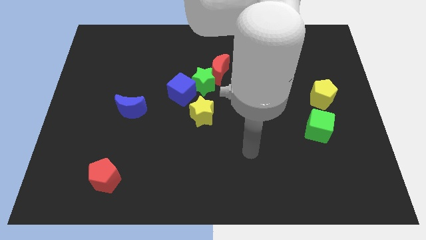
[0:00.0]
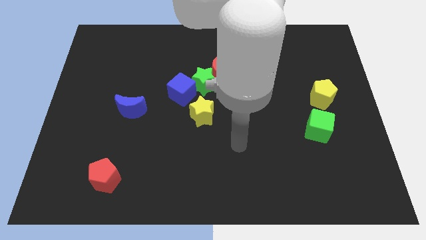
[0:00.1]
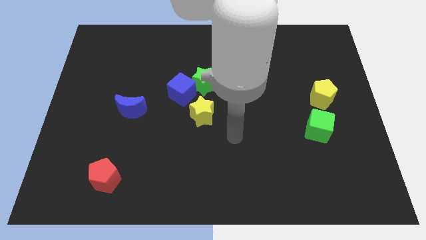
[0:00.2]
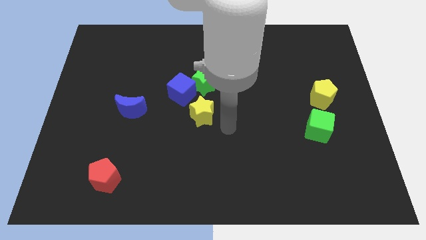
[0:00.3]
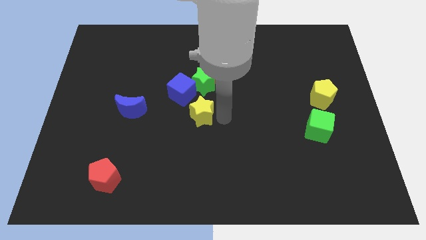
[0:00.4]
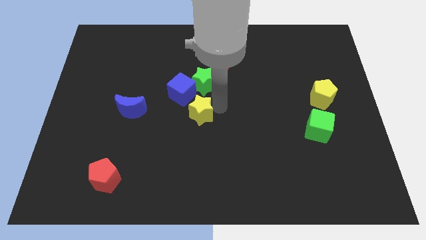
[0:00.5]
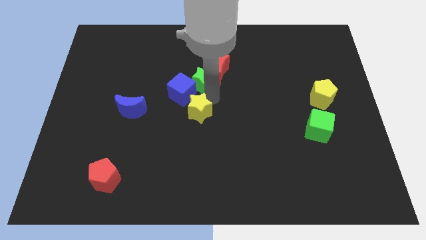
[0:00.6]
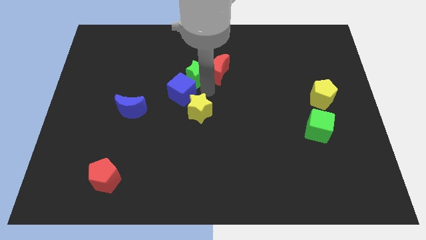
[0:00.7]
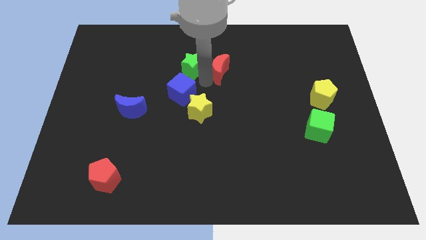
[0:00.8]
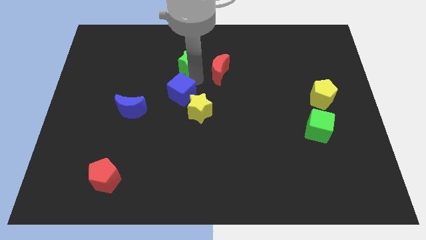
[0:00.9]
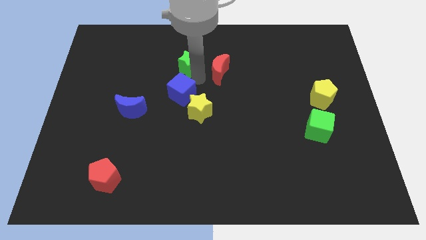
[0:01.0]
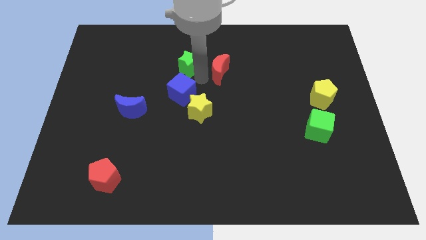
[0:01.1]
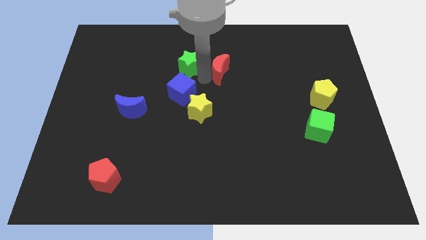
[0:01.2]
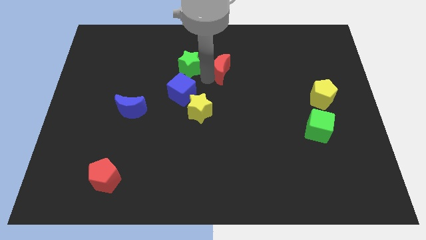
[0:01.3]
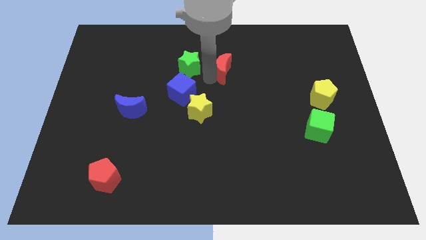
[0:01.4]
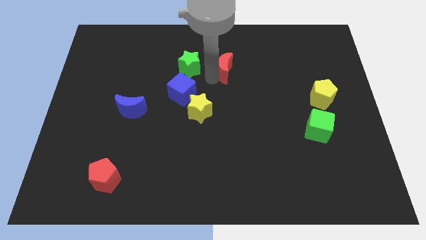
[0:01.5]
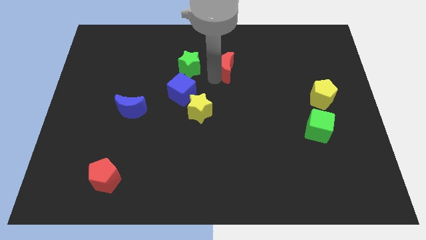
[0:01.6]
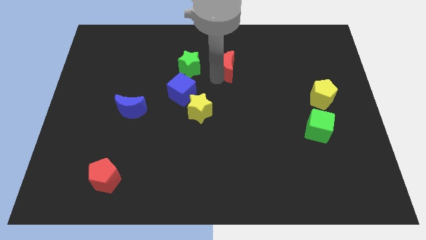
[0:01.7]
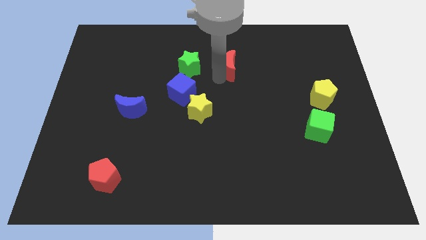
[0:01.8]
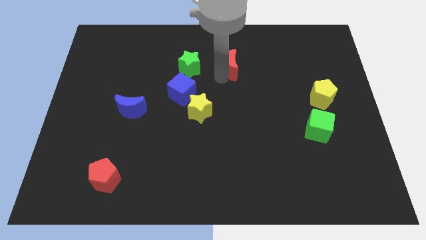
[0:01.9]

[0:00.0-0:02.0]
pull the red moon apart from the green star

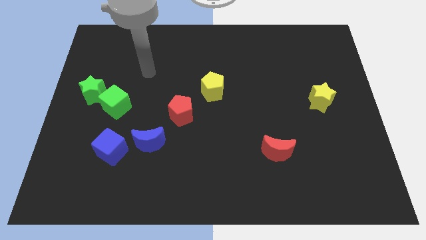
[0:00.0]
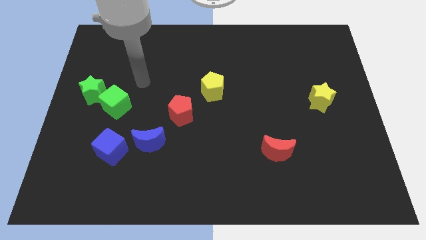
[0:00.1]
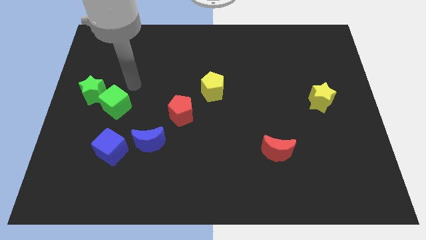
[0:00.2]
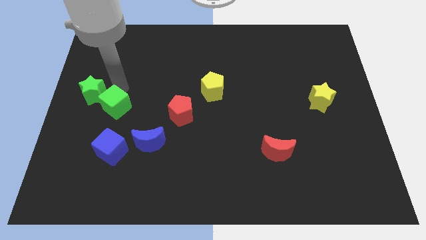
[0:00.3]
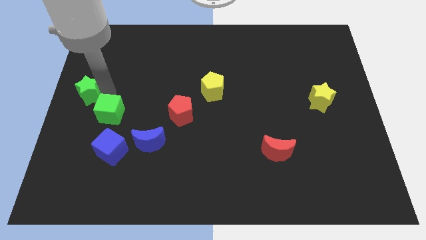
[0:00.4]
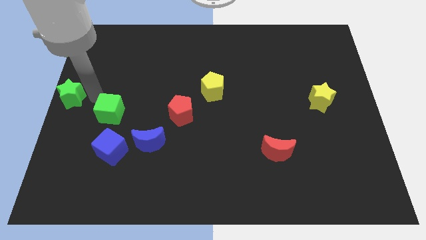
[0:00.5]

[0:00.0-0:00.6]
move the green cube away from the green star

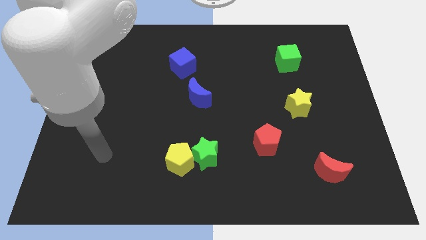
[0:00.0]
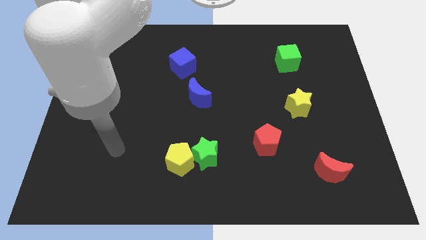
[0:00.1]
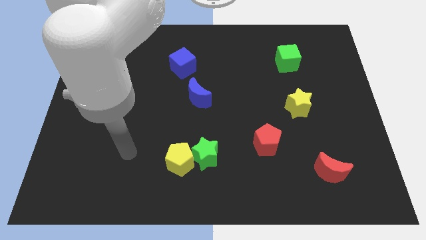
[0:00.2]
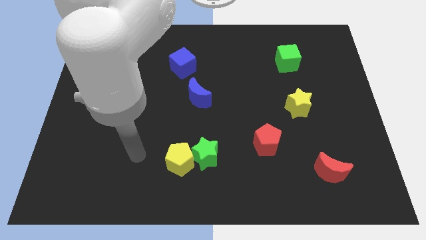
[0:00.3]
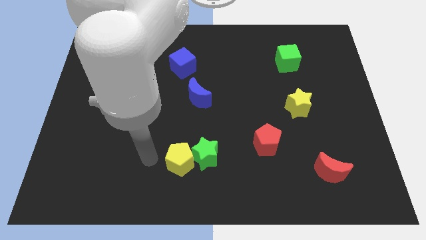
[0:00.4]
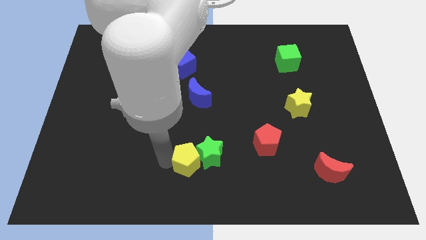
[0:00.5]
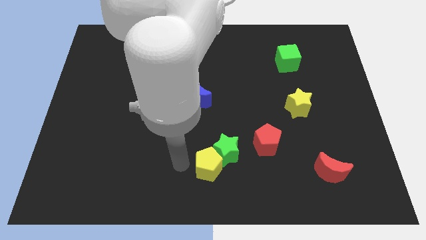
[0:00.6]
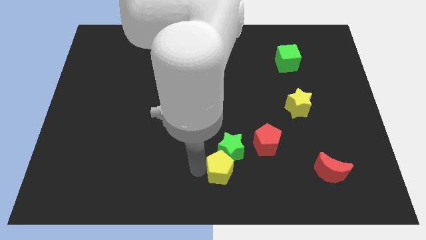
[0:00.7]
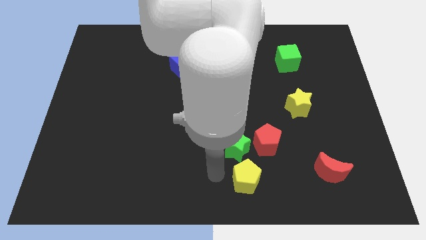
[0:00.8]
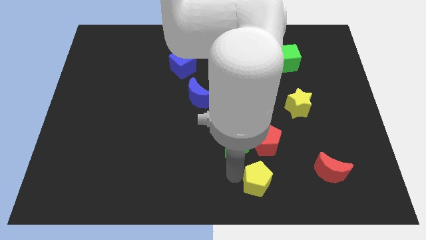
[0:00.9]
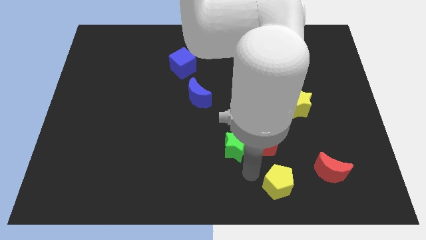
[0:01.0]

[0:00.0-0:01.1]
move the green star away from the yellow pentagon

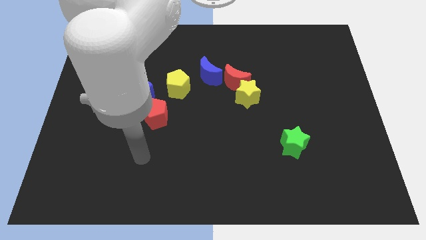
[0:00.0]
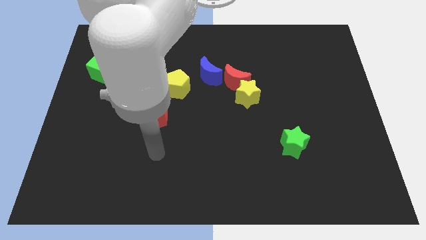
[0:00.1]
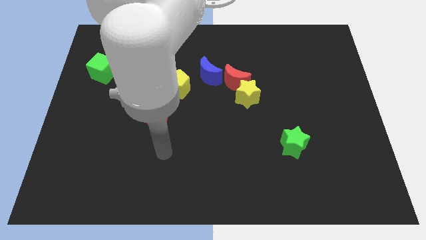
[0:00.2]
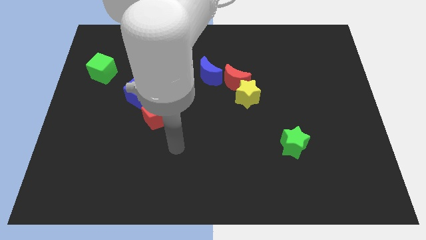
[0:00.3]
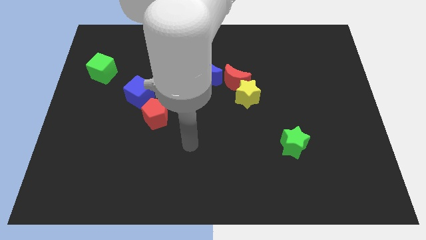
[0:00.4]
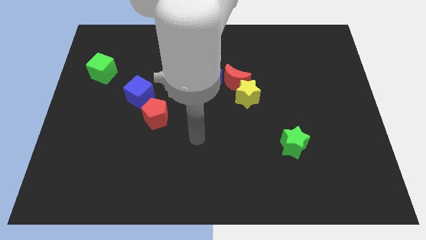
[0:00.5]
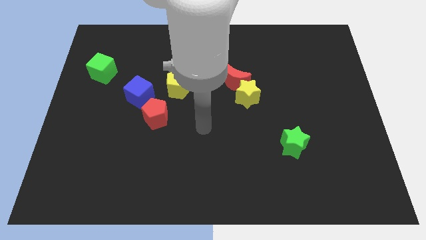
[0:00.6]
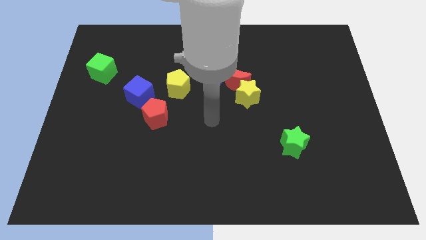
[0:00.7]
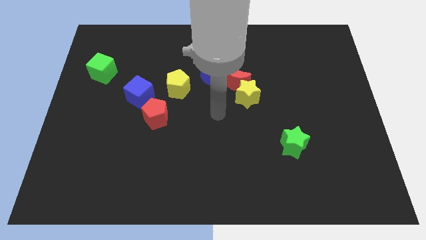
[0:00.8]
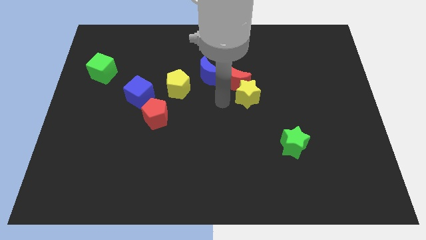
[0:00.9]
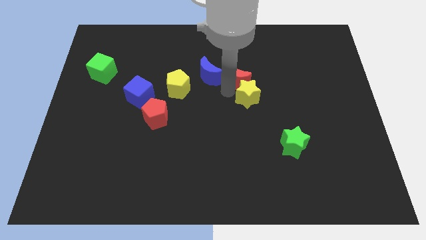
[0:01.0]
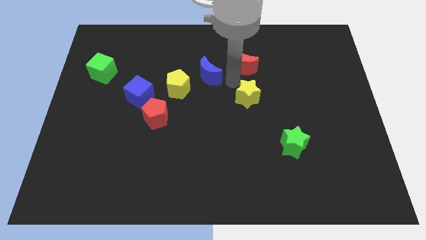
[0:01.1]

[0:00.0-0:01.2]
move the yellow star away from the red moon

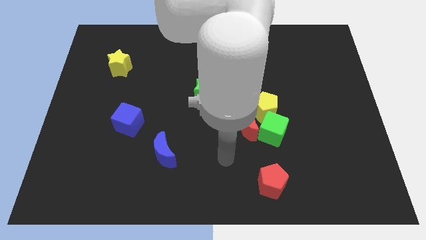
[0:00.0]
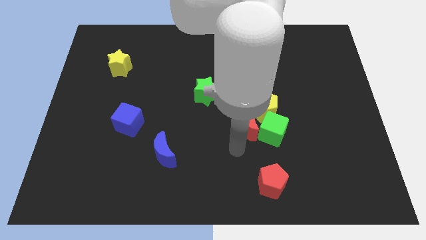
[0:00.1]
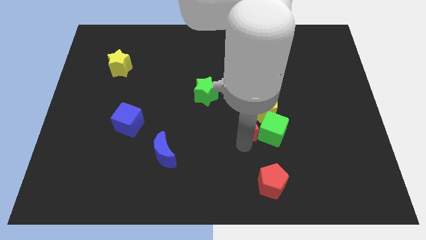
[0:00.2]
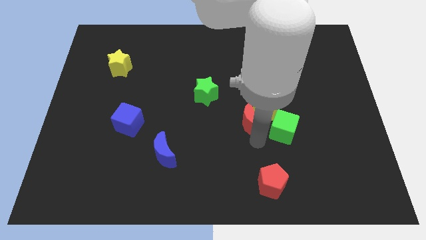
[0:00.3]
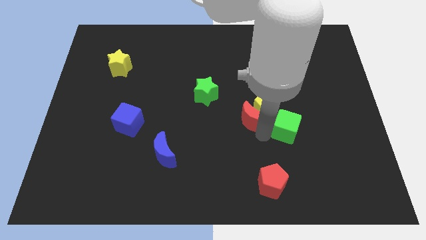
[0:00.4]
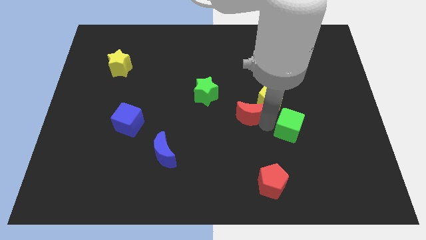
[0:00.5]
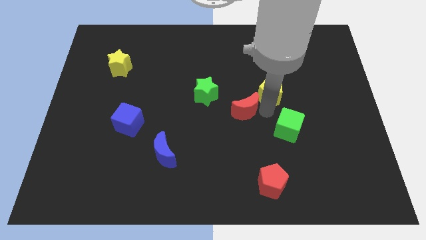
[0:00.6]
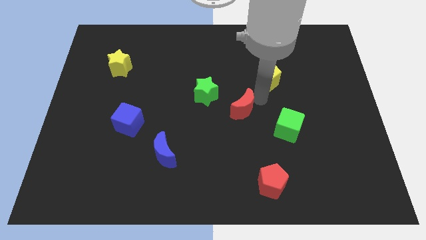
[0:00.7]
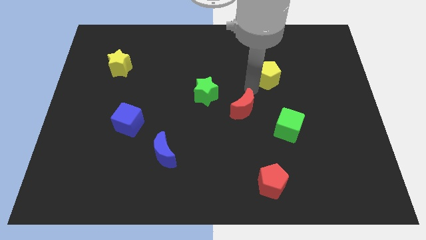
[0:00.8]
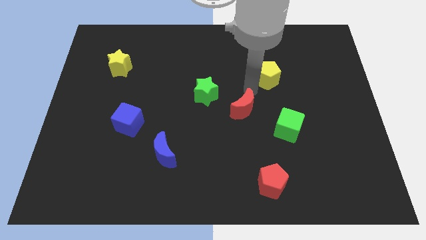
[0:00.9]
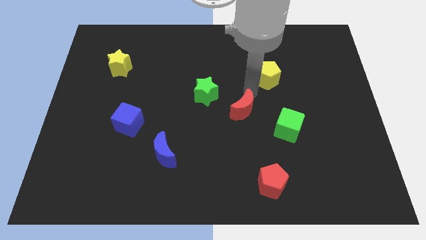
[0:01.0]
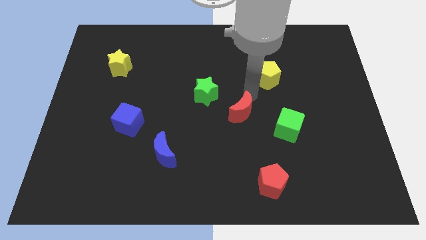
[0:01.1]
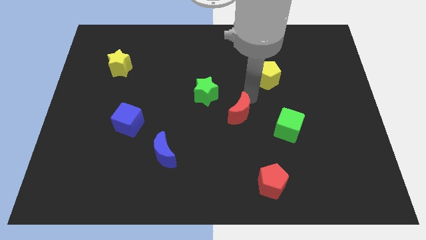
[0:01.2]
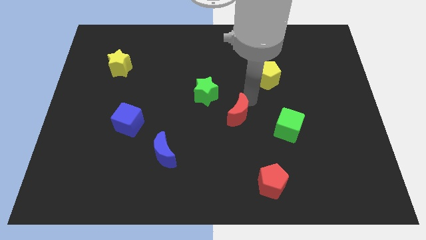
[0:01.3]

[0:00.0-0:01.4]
move the red moon away from the green cube and yellow pentagon

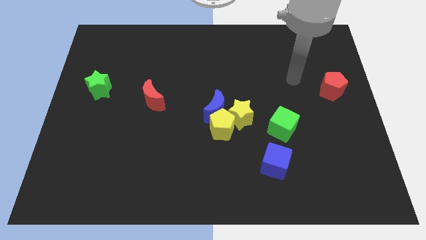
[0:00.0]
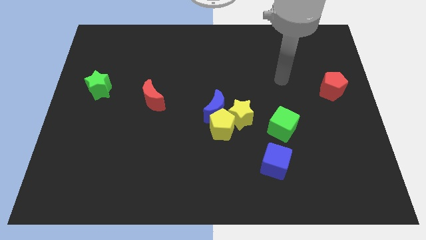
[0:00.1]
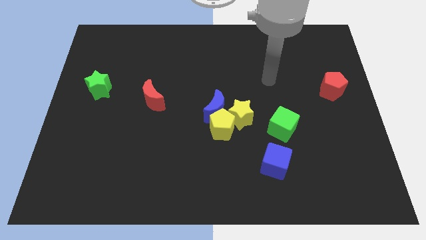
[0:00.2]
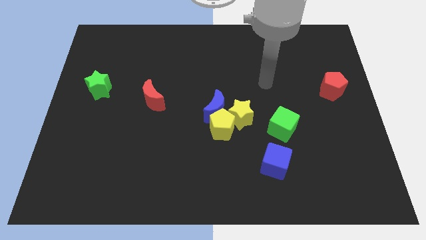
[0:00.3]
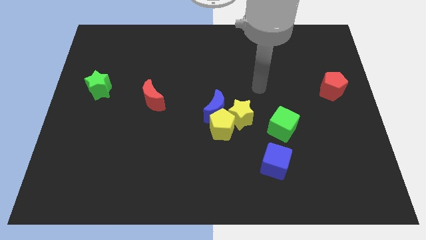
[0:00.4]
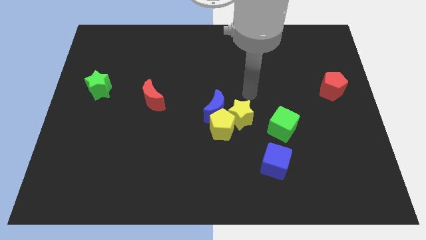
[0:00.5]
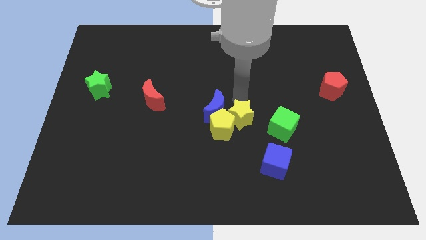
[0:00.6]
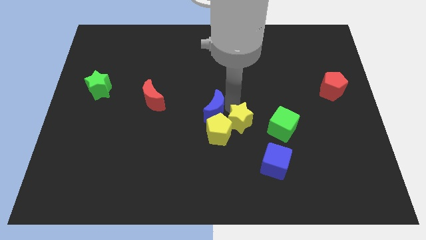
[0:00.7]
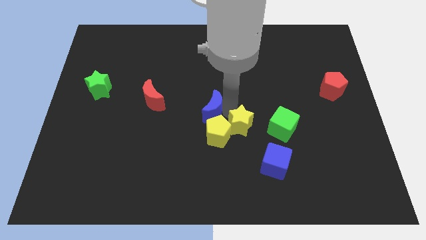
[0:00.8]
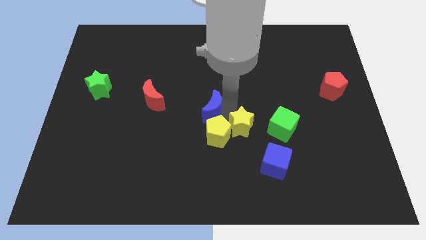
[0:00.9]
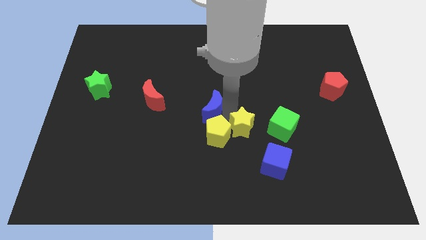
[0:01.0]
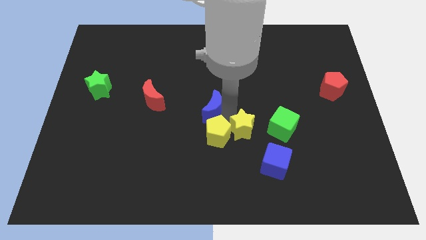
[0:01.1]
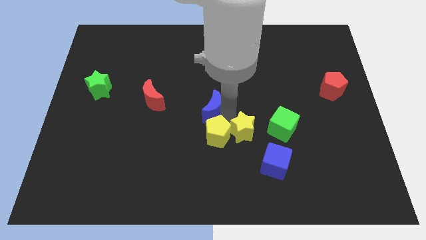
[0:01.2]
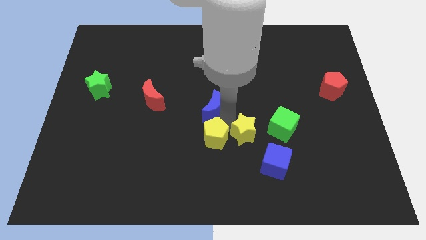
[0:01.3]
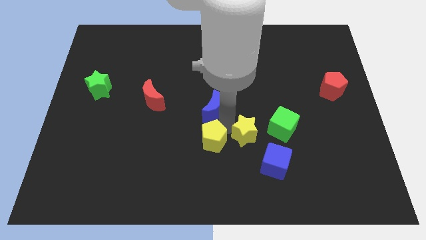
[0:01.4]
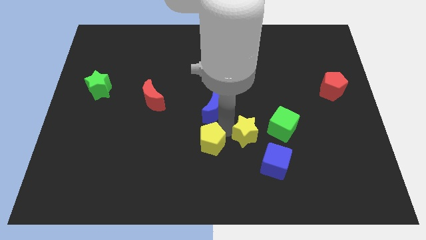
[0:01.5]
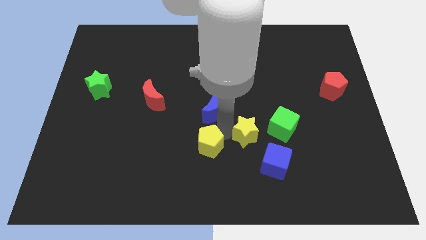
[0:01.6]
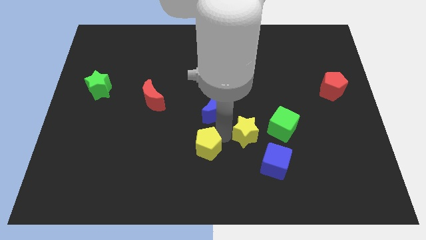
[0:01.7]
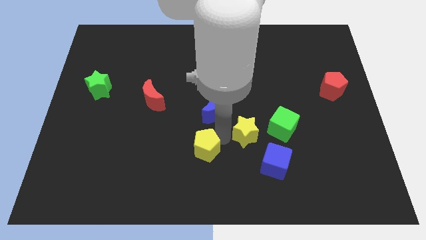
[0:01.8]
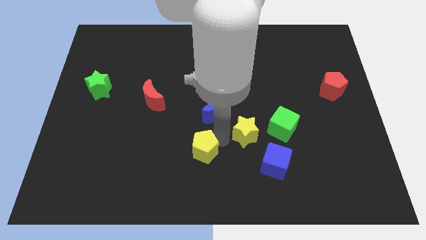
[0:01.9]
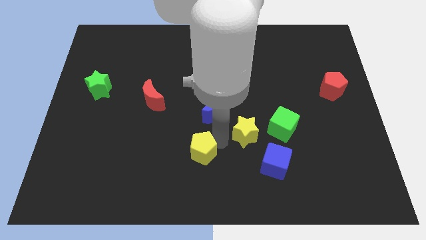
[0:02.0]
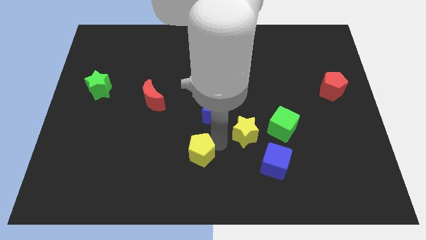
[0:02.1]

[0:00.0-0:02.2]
move the yellow pentagon away from the blue moon and yellow star

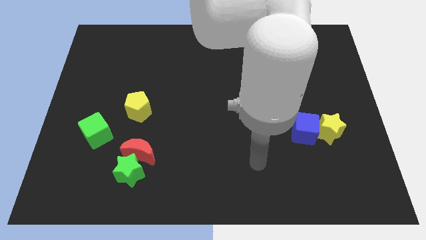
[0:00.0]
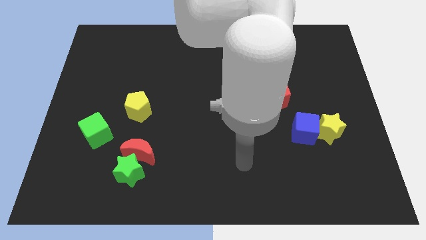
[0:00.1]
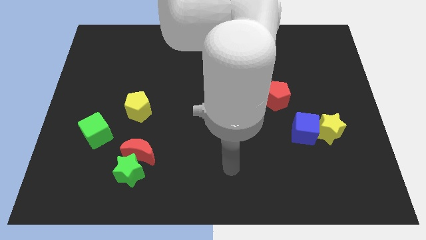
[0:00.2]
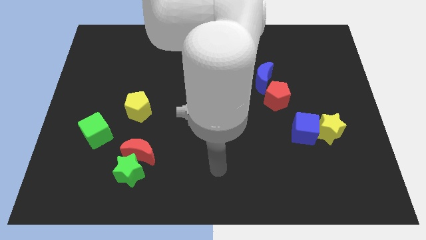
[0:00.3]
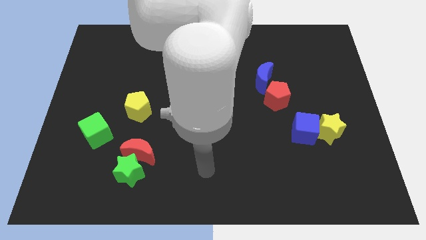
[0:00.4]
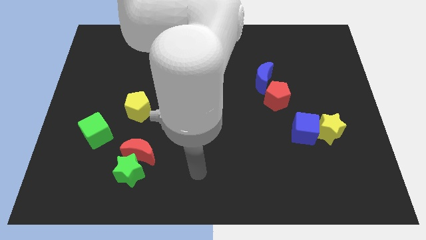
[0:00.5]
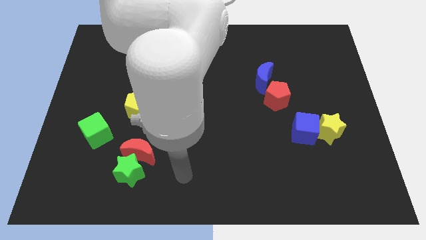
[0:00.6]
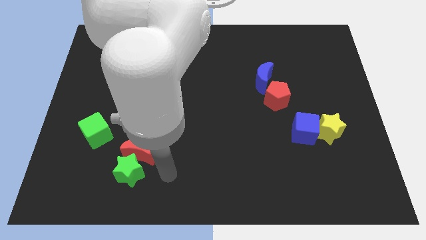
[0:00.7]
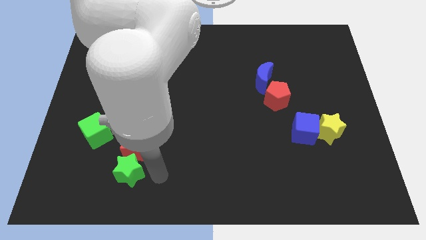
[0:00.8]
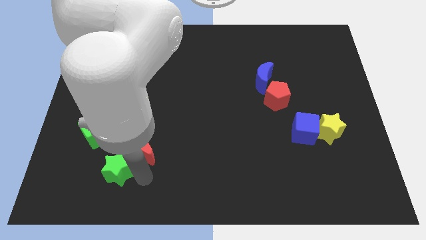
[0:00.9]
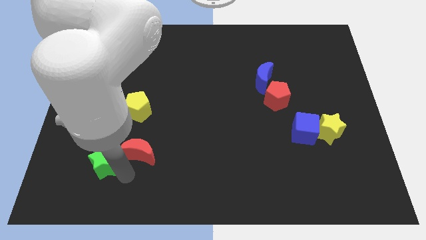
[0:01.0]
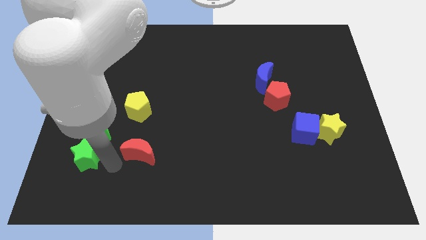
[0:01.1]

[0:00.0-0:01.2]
separate the red moon from the green star
